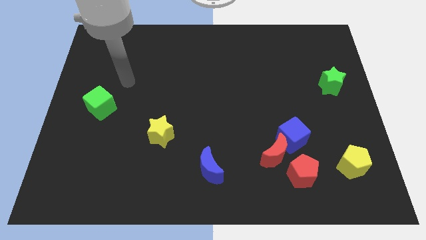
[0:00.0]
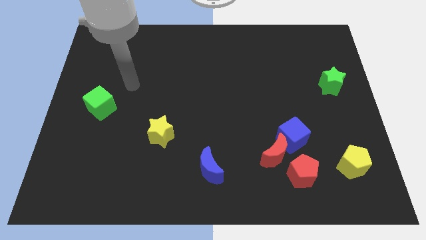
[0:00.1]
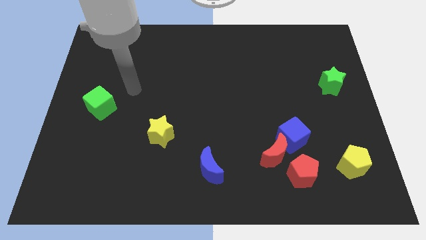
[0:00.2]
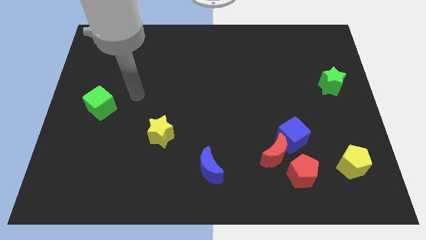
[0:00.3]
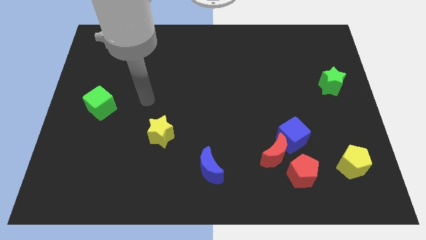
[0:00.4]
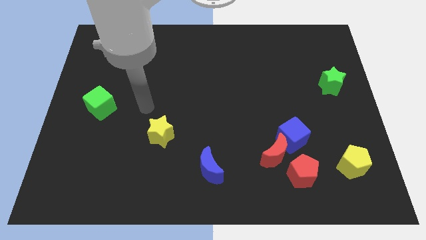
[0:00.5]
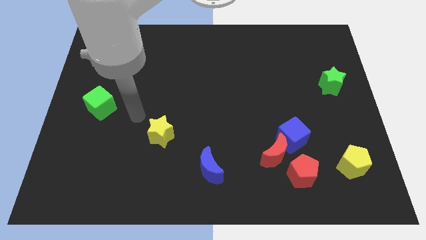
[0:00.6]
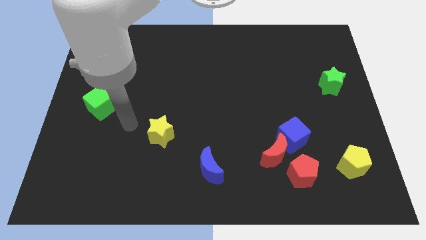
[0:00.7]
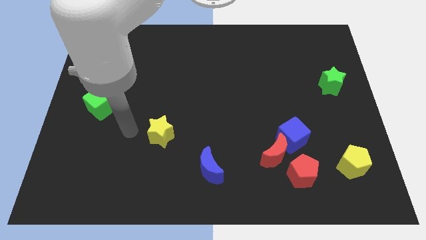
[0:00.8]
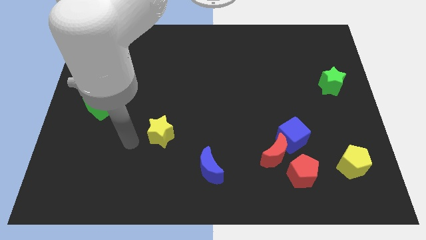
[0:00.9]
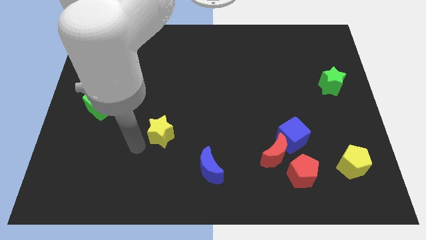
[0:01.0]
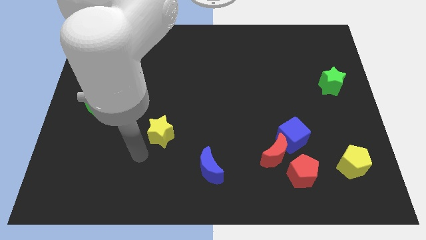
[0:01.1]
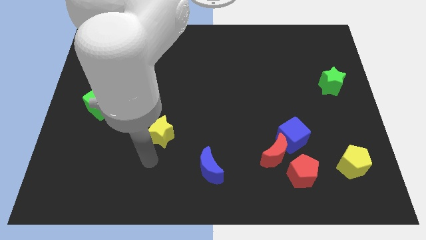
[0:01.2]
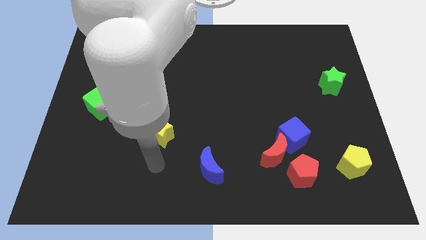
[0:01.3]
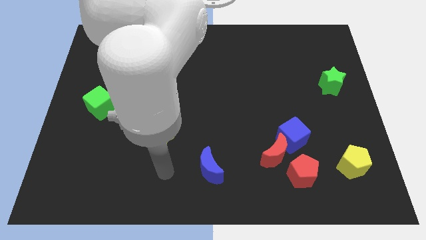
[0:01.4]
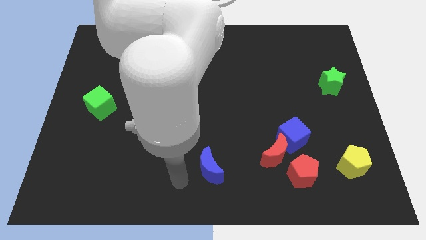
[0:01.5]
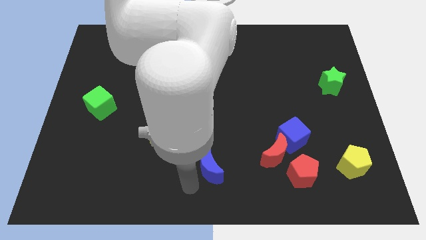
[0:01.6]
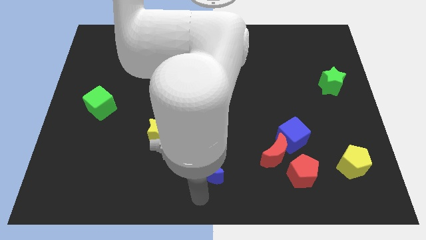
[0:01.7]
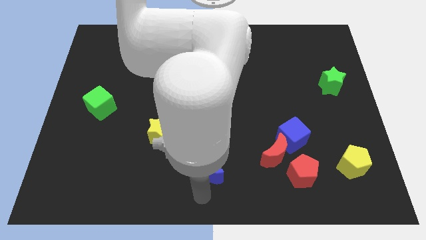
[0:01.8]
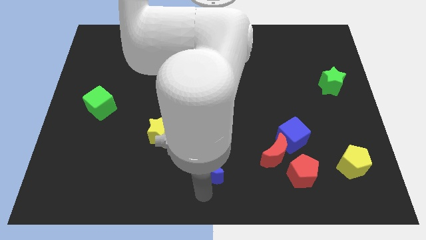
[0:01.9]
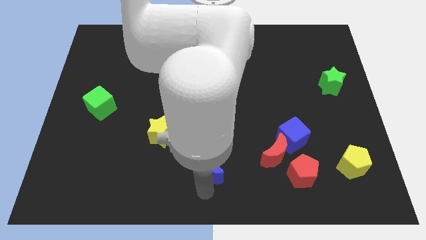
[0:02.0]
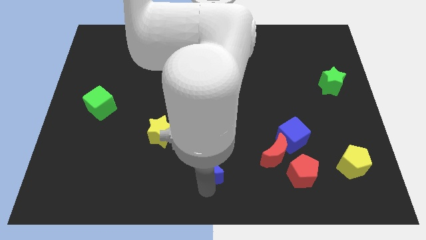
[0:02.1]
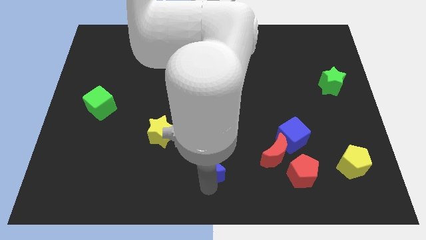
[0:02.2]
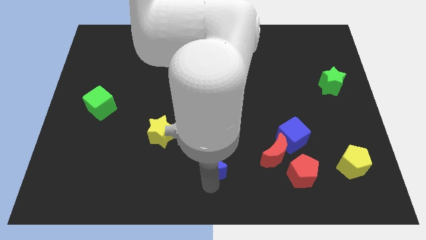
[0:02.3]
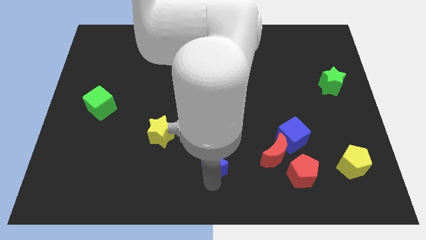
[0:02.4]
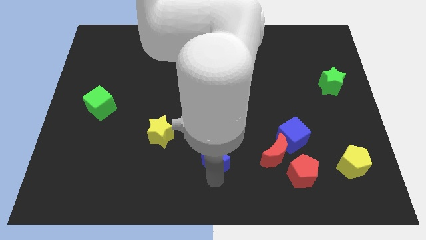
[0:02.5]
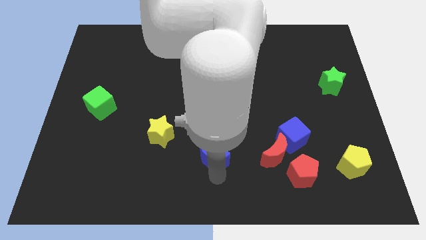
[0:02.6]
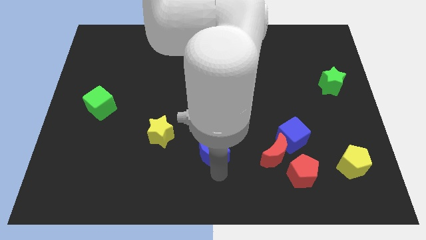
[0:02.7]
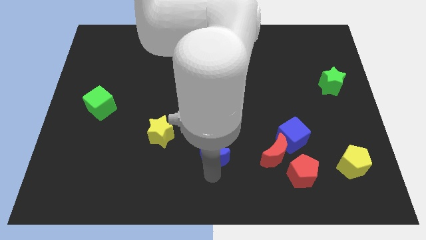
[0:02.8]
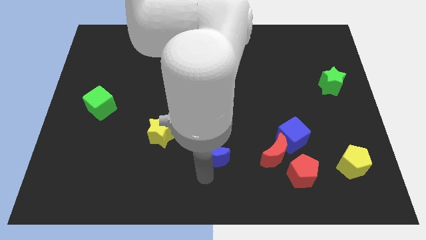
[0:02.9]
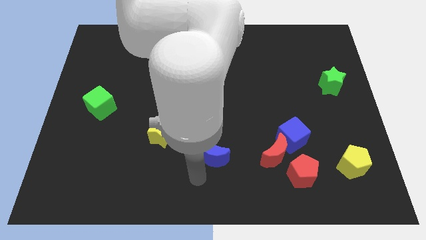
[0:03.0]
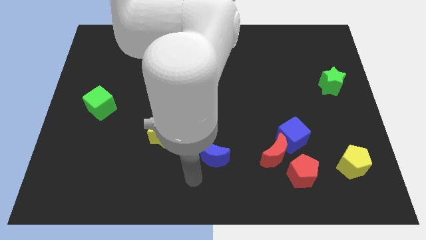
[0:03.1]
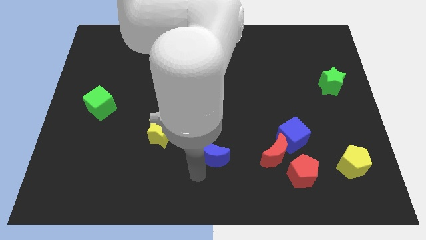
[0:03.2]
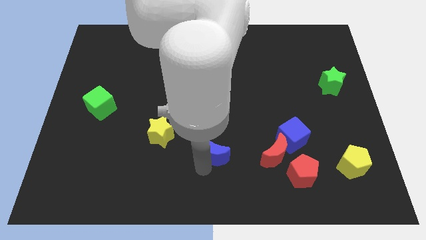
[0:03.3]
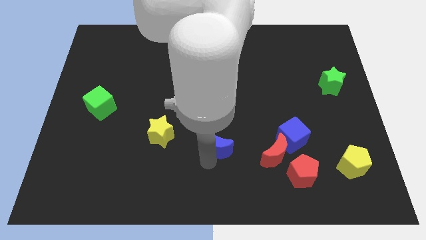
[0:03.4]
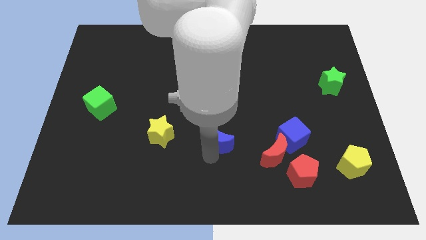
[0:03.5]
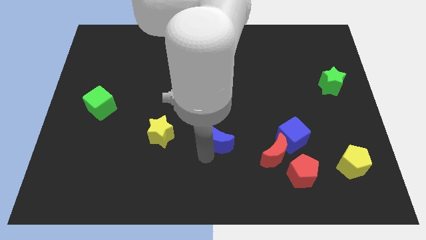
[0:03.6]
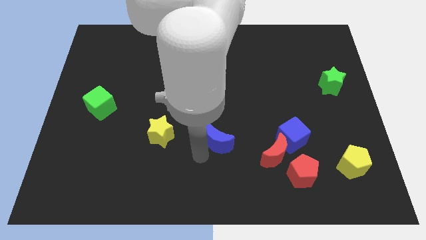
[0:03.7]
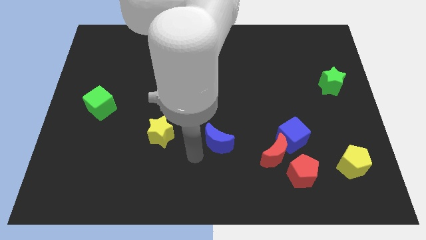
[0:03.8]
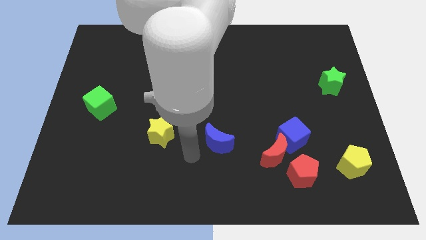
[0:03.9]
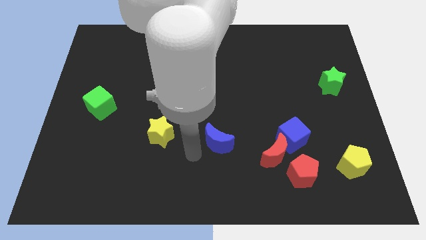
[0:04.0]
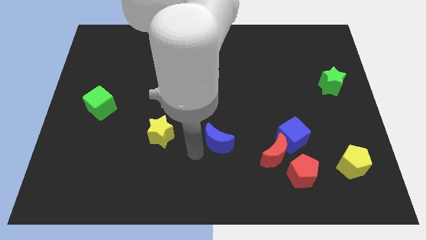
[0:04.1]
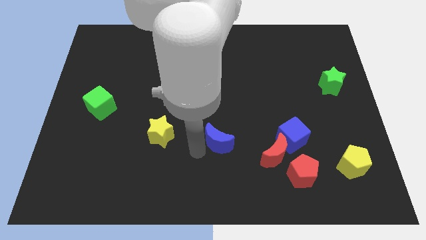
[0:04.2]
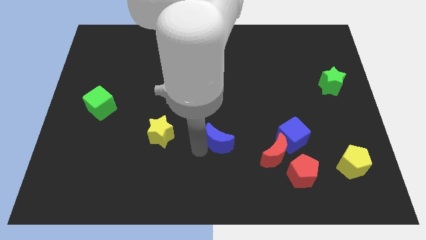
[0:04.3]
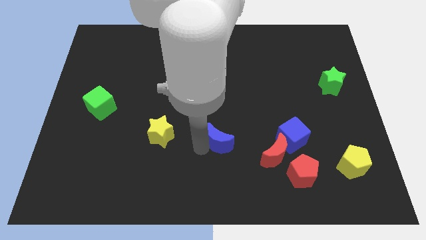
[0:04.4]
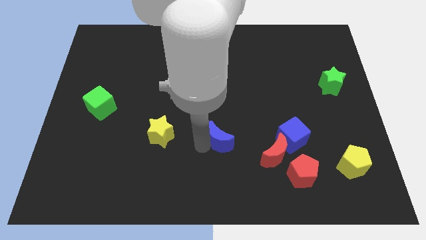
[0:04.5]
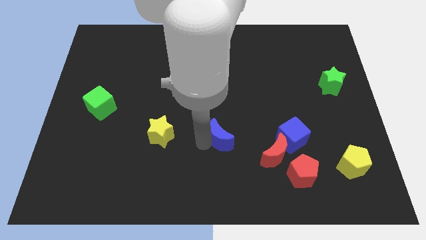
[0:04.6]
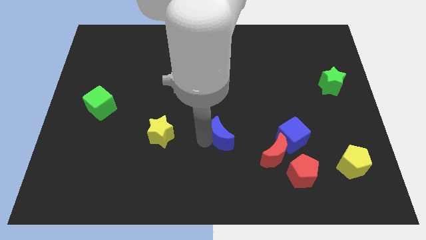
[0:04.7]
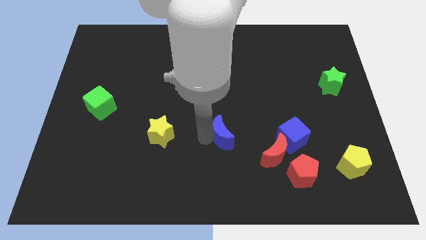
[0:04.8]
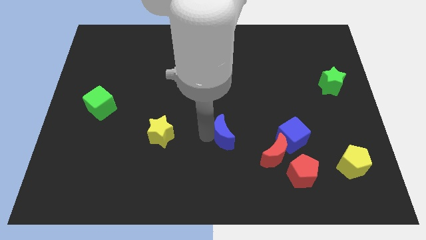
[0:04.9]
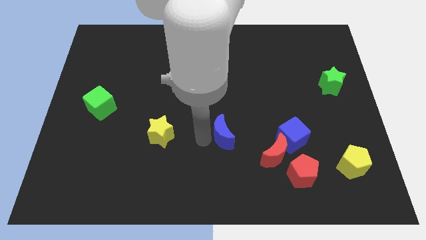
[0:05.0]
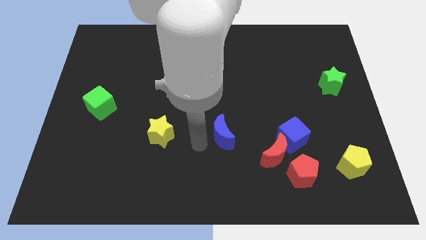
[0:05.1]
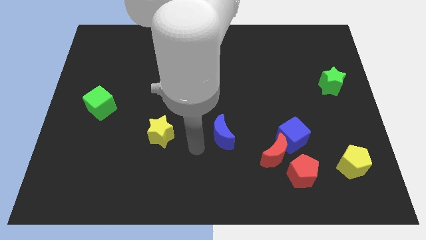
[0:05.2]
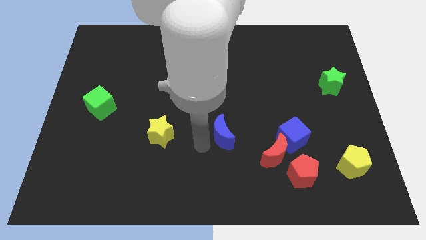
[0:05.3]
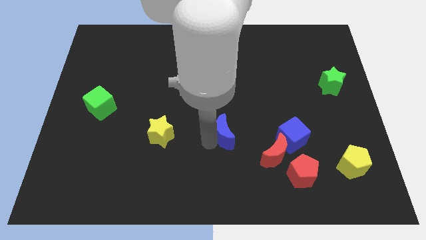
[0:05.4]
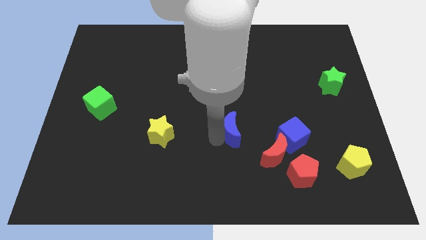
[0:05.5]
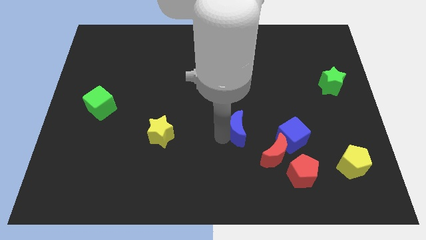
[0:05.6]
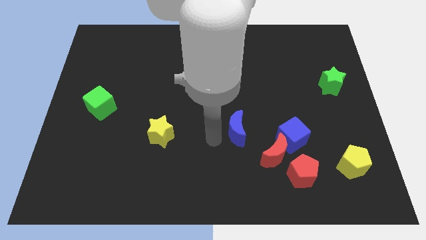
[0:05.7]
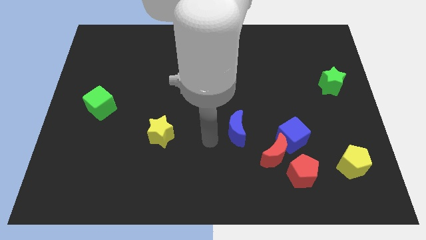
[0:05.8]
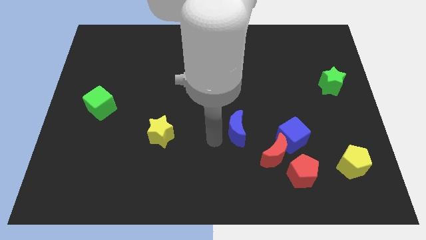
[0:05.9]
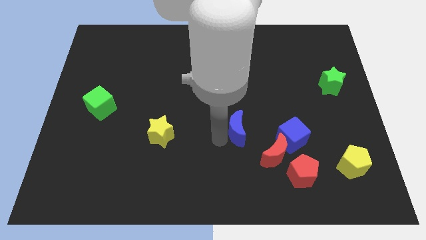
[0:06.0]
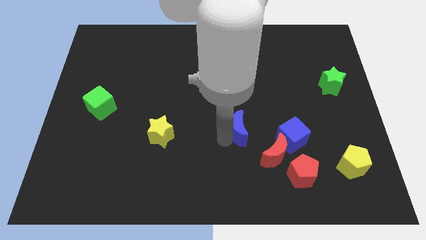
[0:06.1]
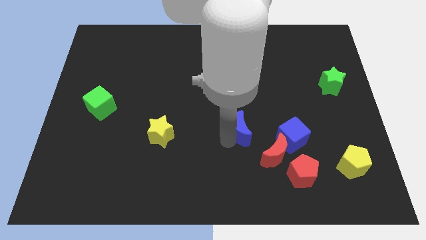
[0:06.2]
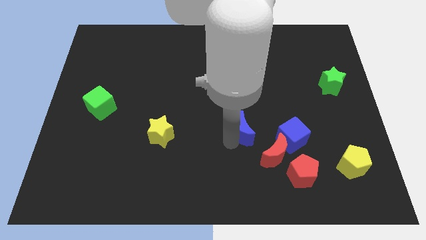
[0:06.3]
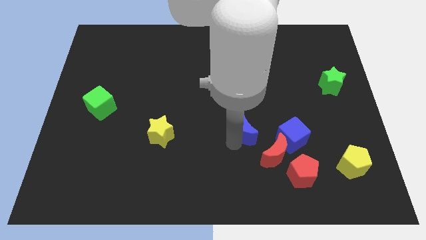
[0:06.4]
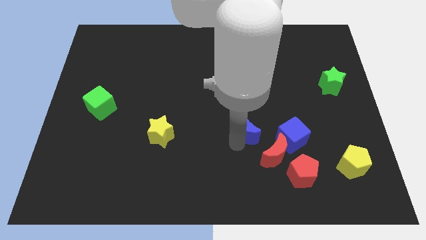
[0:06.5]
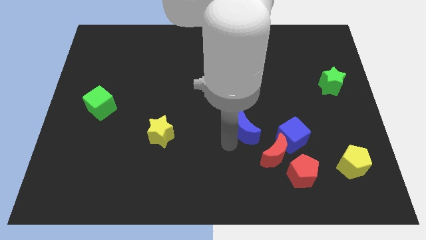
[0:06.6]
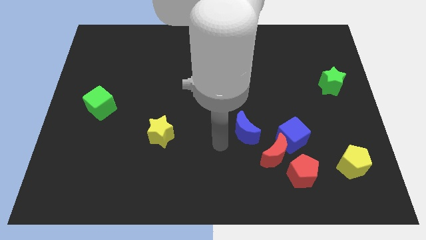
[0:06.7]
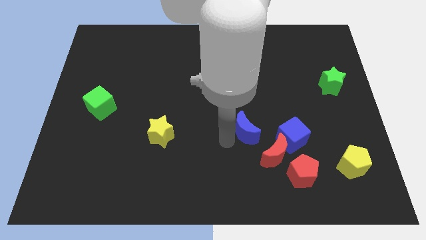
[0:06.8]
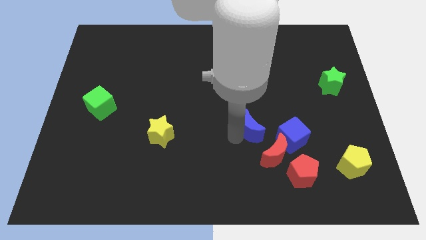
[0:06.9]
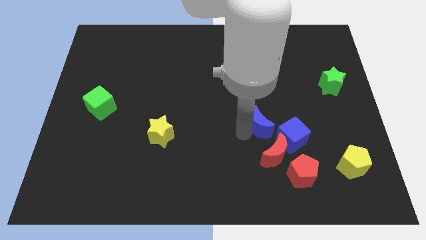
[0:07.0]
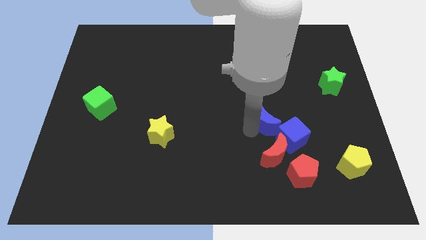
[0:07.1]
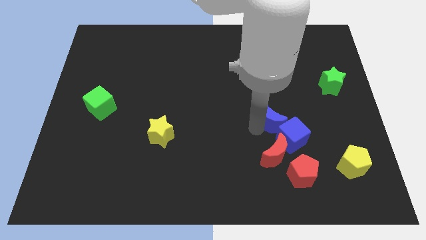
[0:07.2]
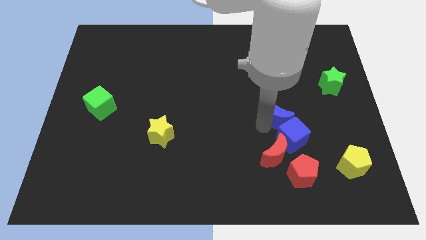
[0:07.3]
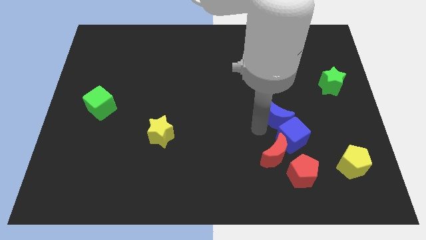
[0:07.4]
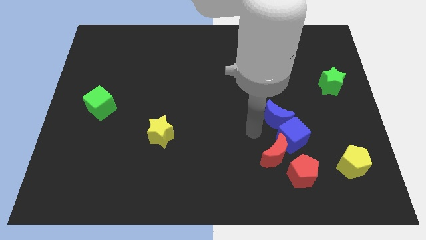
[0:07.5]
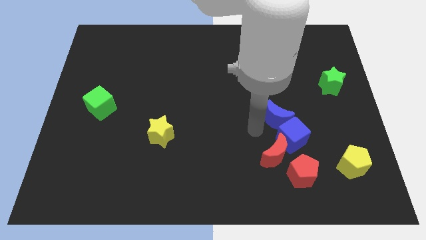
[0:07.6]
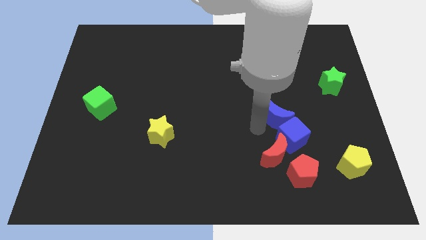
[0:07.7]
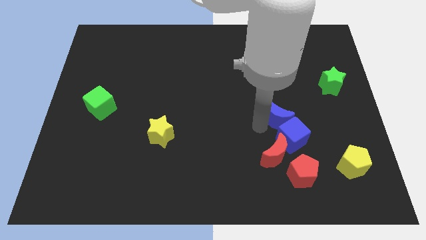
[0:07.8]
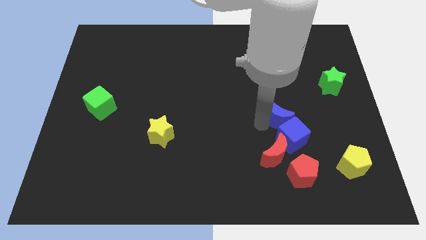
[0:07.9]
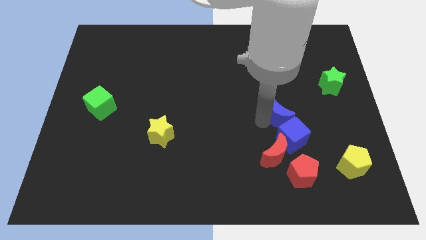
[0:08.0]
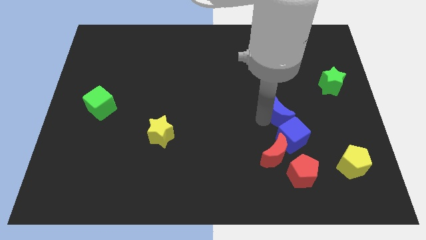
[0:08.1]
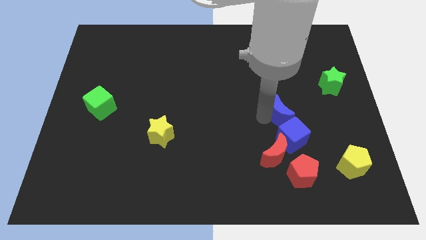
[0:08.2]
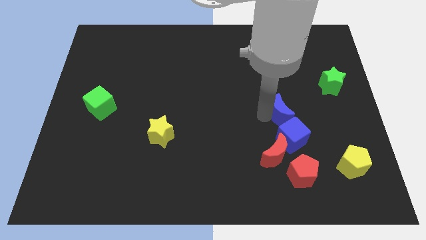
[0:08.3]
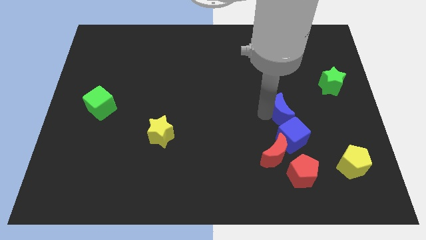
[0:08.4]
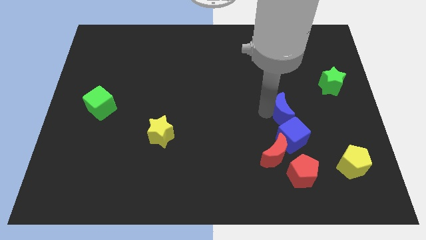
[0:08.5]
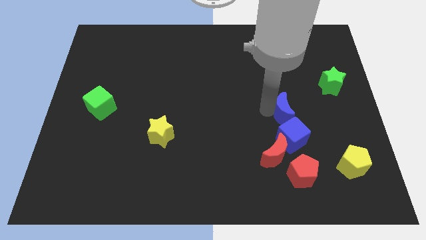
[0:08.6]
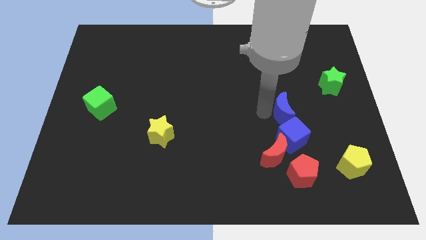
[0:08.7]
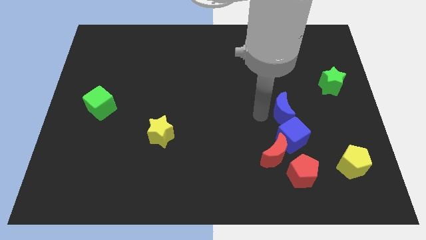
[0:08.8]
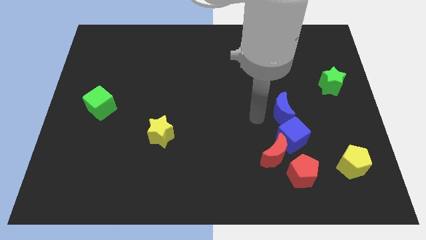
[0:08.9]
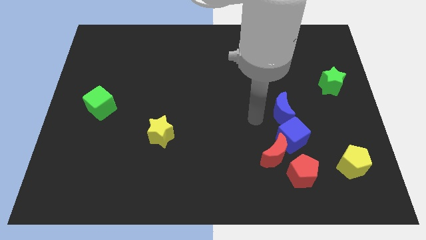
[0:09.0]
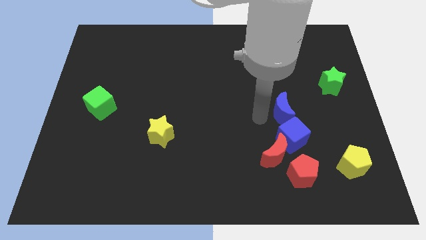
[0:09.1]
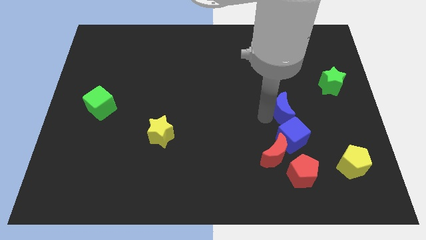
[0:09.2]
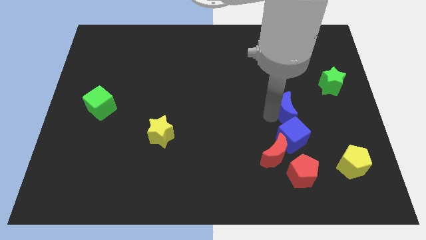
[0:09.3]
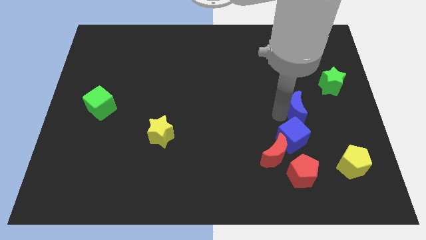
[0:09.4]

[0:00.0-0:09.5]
slide the blue moon diagonally down and to the left of the green star
